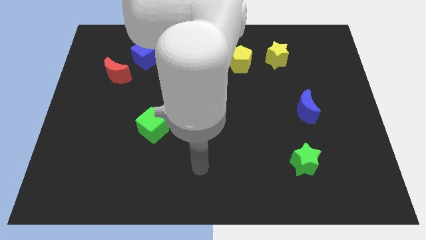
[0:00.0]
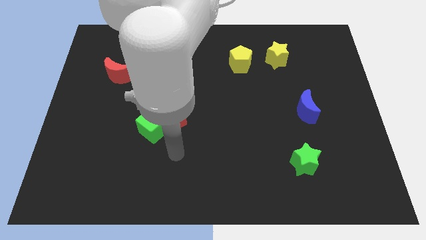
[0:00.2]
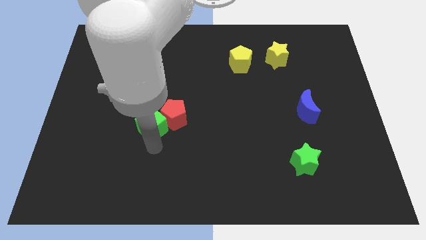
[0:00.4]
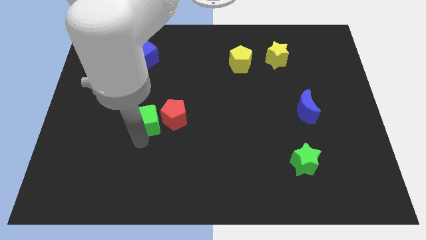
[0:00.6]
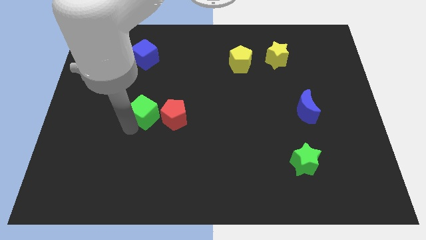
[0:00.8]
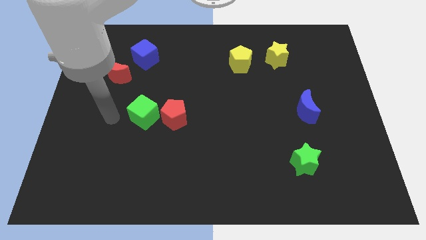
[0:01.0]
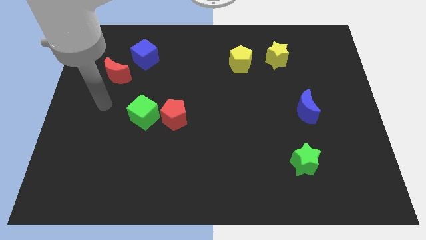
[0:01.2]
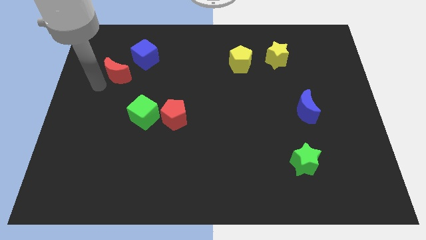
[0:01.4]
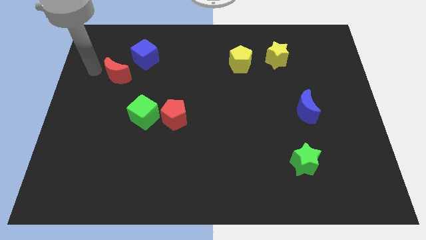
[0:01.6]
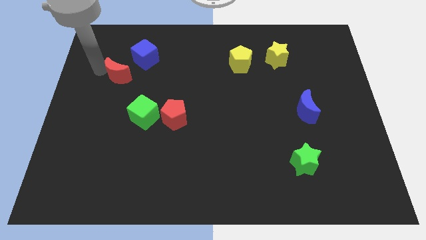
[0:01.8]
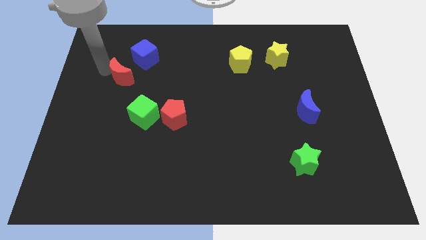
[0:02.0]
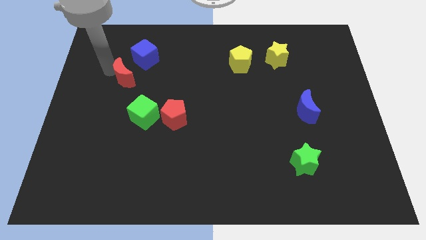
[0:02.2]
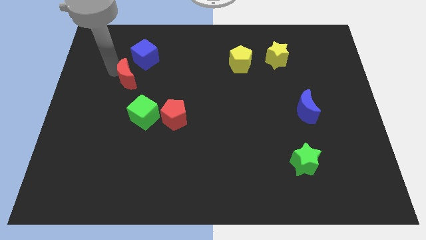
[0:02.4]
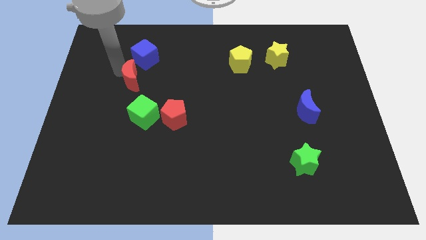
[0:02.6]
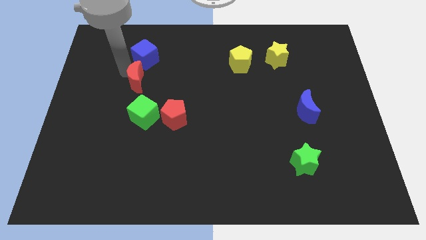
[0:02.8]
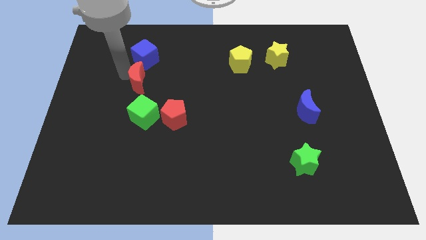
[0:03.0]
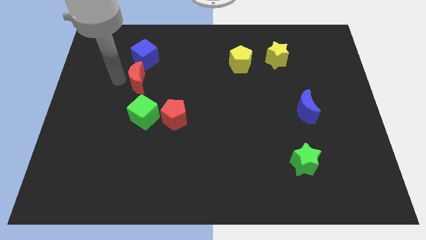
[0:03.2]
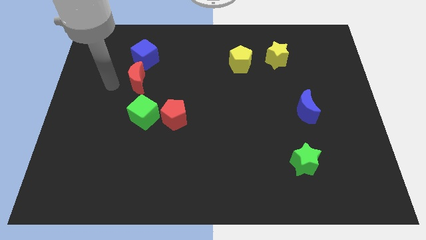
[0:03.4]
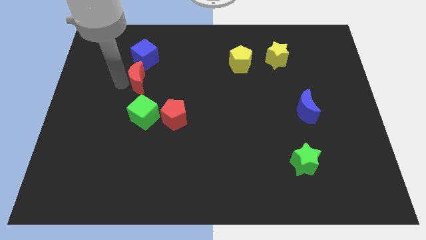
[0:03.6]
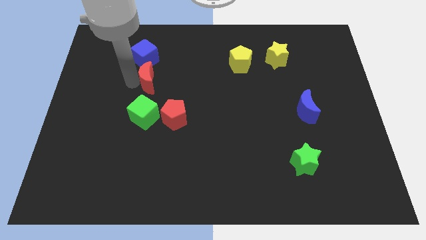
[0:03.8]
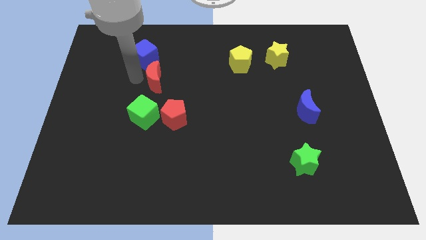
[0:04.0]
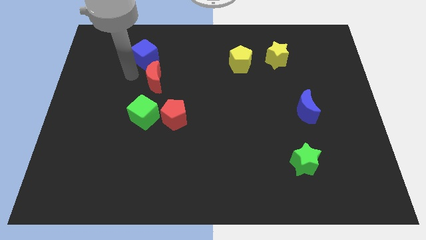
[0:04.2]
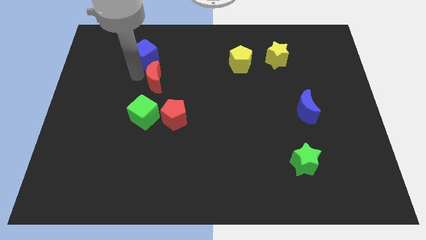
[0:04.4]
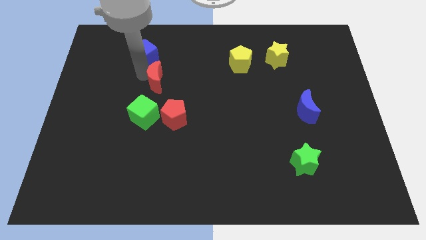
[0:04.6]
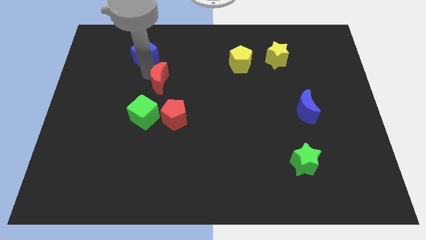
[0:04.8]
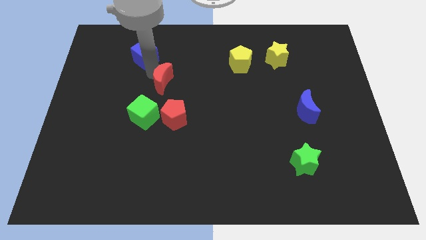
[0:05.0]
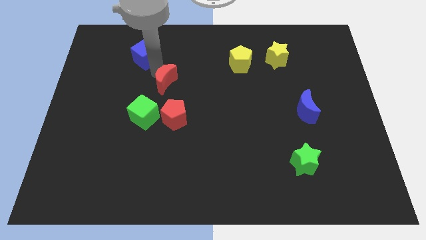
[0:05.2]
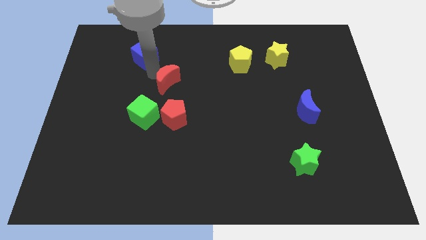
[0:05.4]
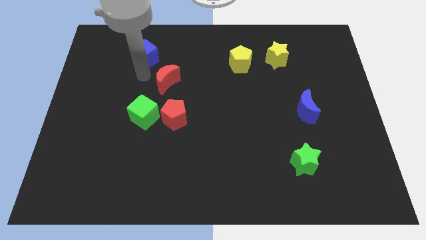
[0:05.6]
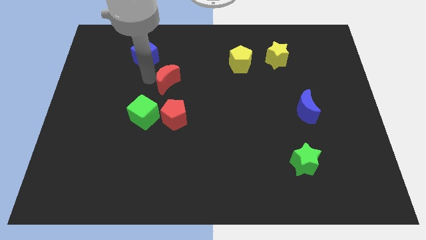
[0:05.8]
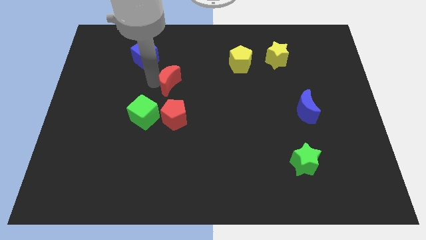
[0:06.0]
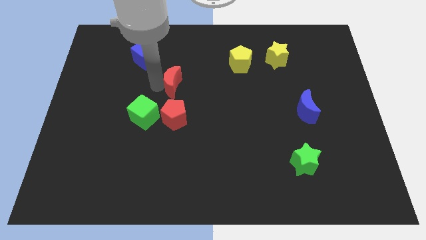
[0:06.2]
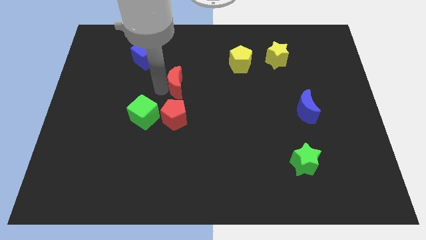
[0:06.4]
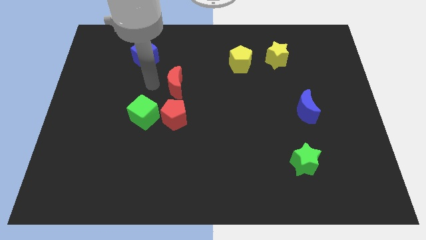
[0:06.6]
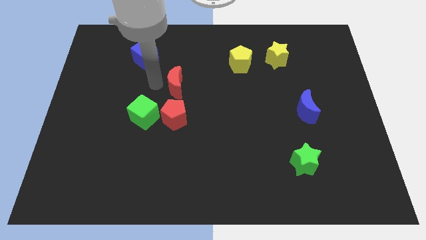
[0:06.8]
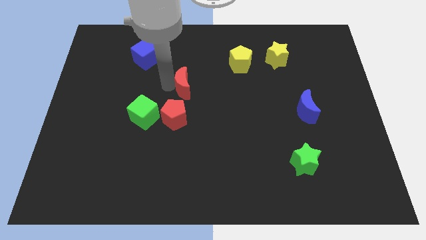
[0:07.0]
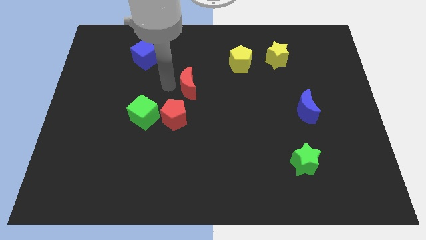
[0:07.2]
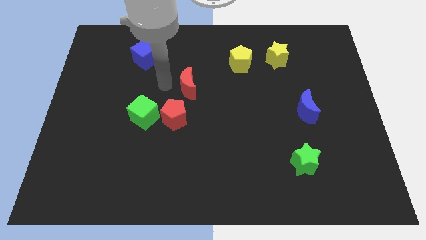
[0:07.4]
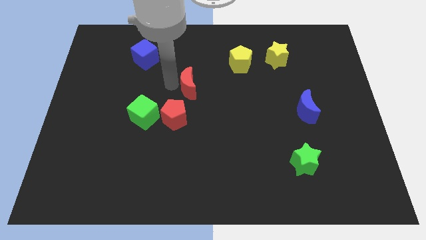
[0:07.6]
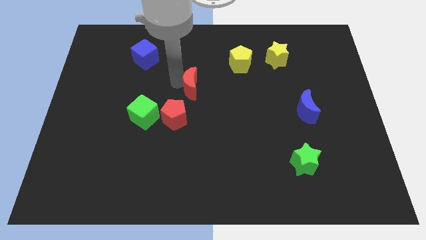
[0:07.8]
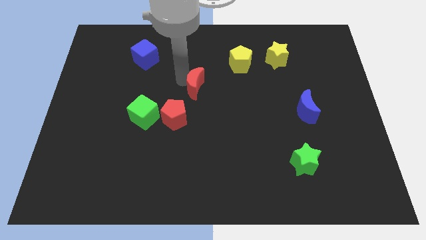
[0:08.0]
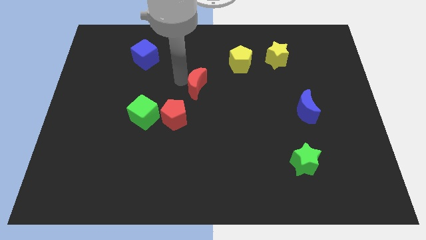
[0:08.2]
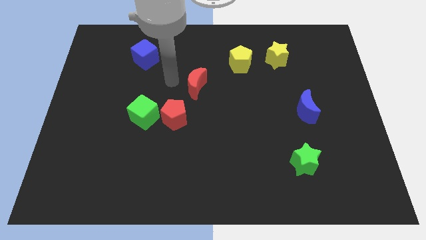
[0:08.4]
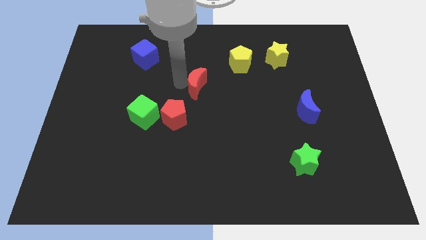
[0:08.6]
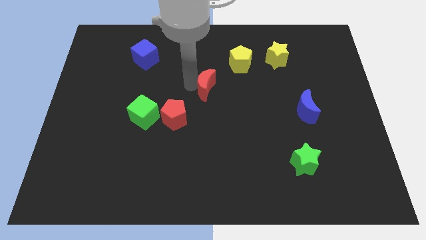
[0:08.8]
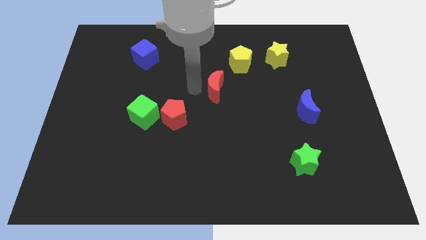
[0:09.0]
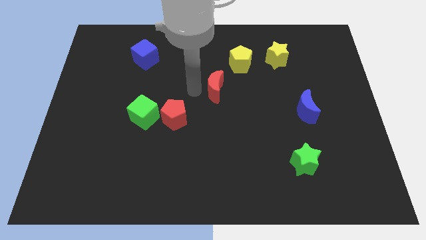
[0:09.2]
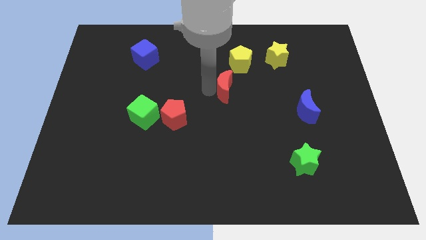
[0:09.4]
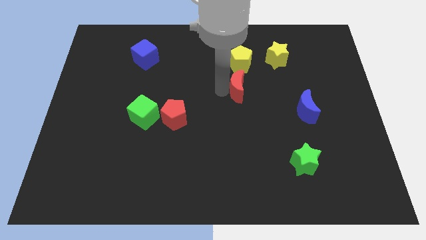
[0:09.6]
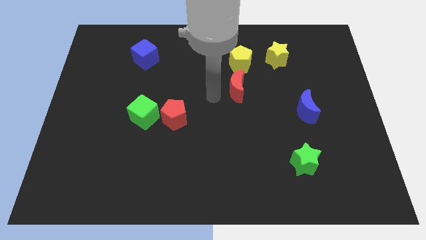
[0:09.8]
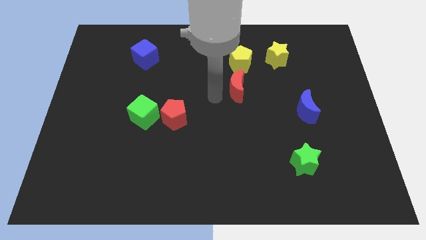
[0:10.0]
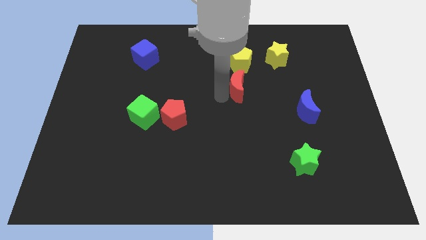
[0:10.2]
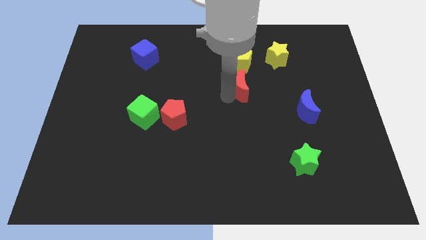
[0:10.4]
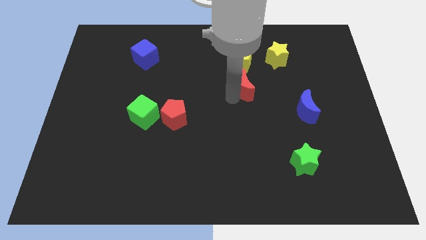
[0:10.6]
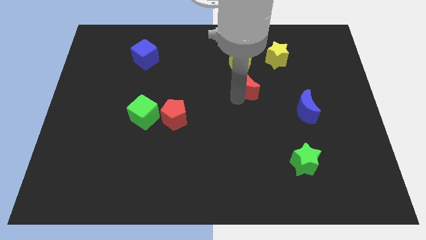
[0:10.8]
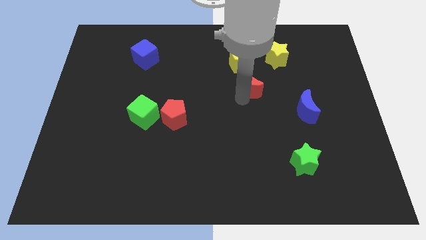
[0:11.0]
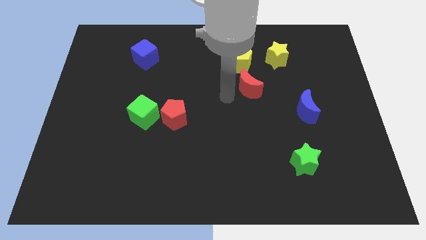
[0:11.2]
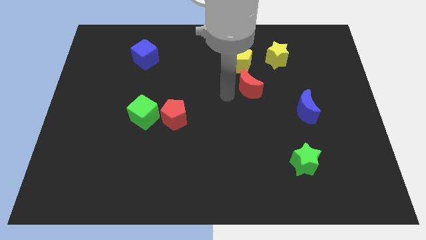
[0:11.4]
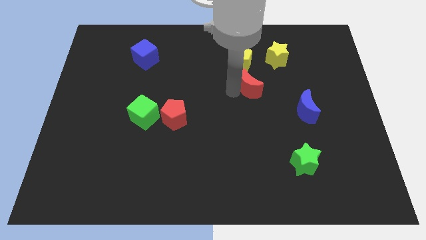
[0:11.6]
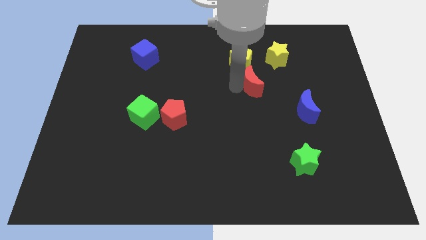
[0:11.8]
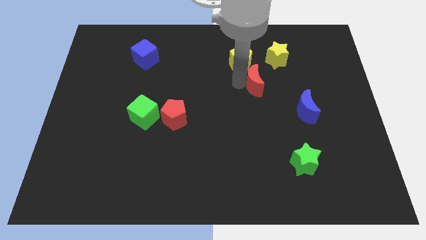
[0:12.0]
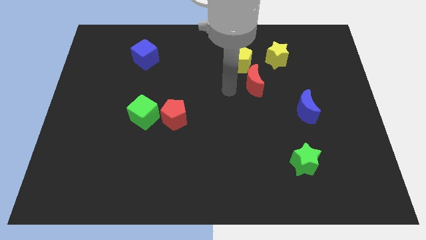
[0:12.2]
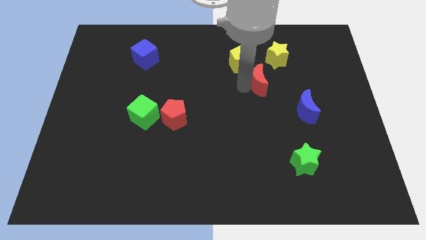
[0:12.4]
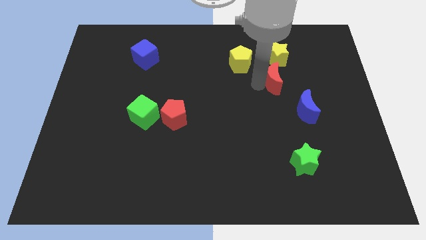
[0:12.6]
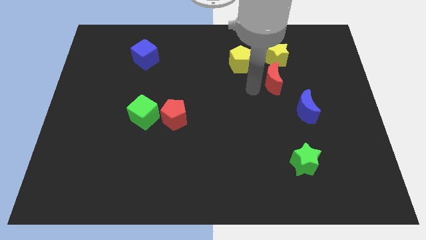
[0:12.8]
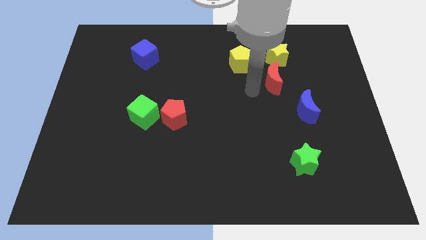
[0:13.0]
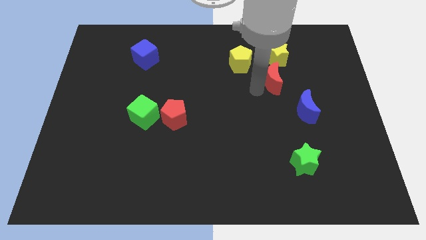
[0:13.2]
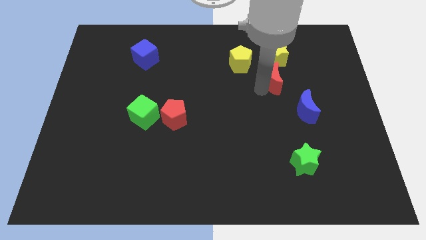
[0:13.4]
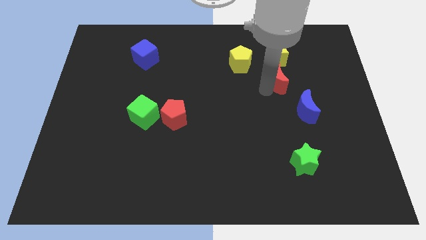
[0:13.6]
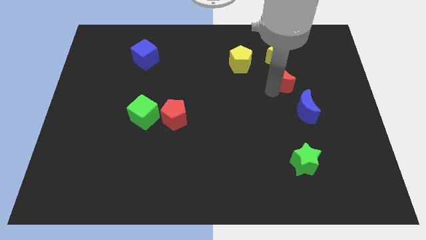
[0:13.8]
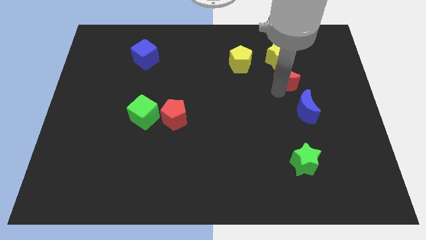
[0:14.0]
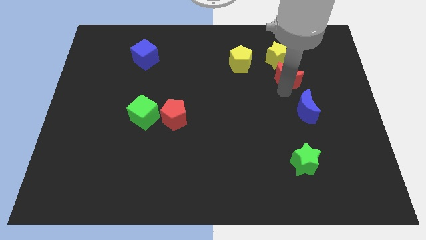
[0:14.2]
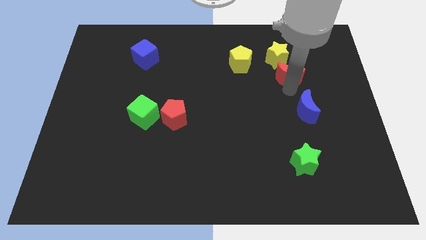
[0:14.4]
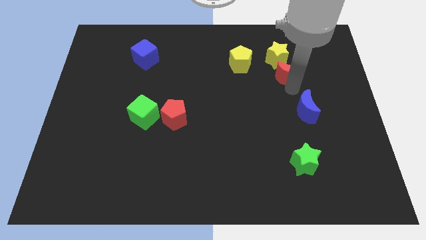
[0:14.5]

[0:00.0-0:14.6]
push the red moon to the right side of the yellow pentagon

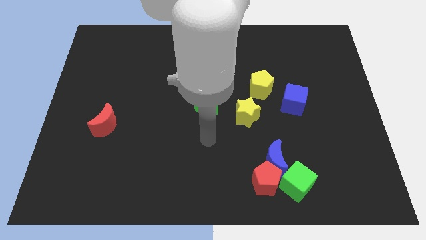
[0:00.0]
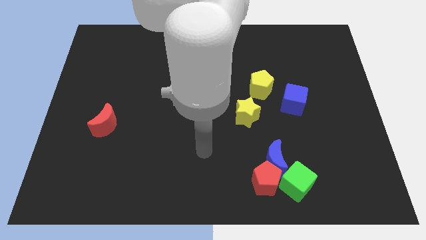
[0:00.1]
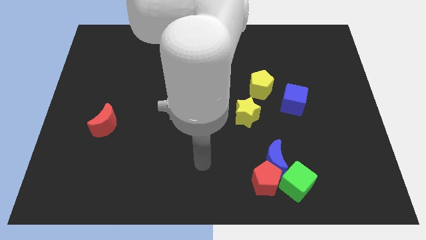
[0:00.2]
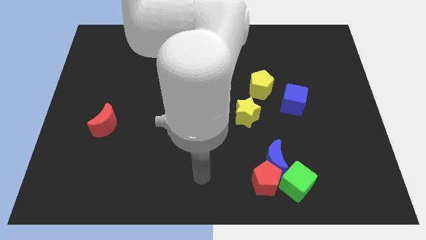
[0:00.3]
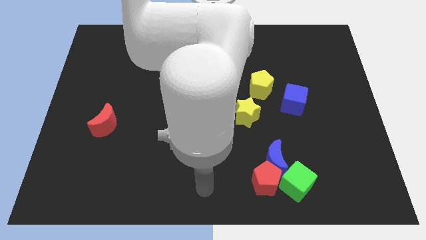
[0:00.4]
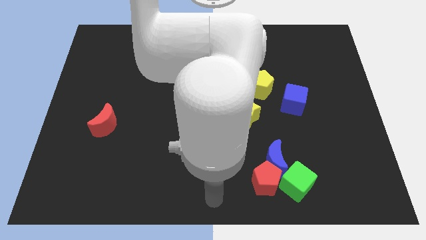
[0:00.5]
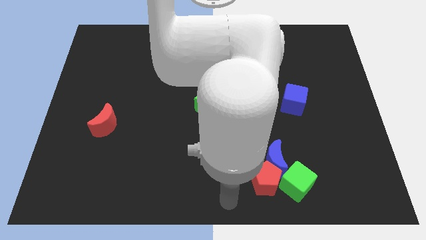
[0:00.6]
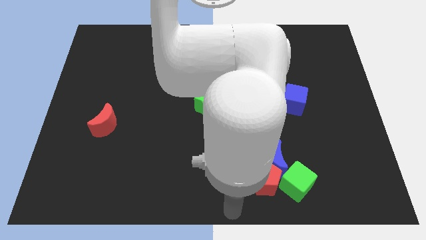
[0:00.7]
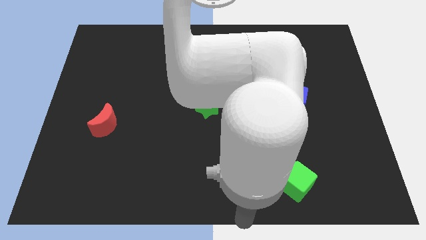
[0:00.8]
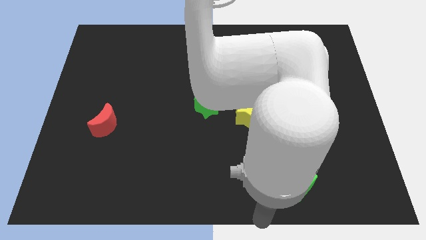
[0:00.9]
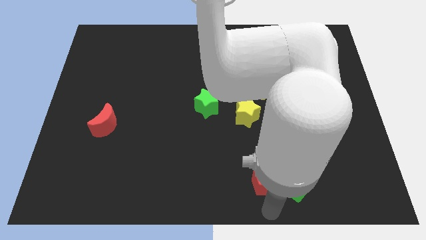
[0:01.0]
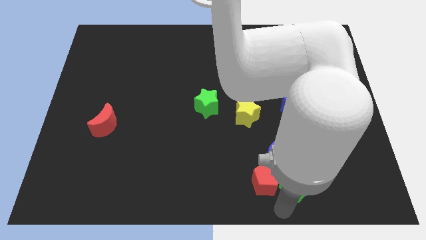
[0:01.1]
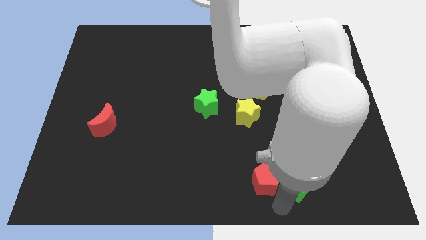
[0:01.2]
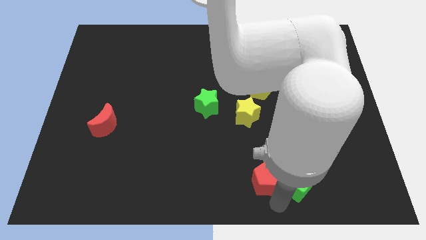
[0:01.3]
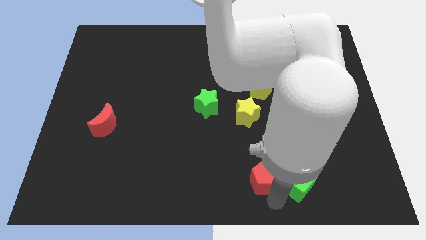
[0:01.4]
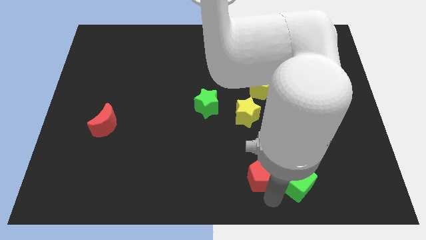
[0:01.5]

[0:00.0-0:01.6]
slide the red pentagon to the bottom of the yellow star
